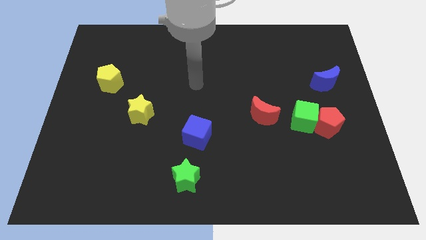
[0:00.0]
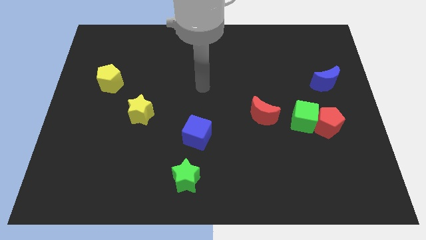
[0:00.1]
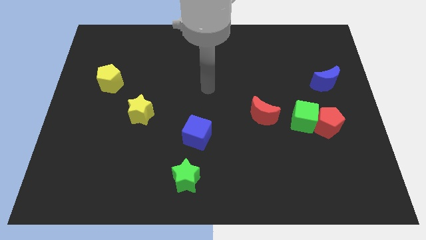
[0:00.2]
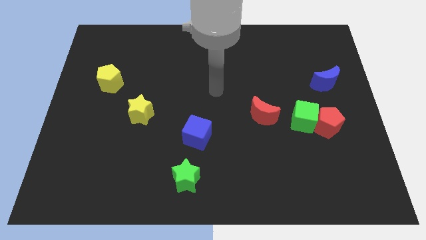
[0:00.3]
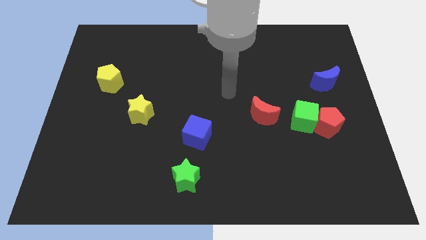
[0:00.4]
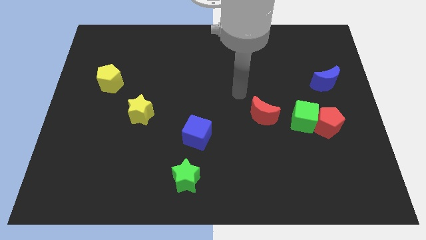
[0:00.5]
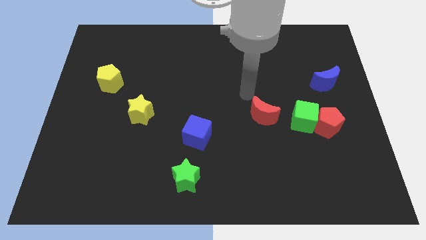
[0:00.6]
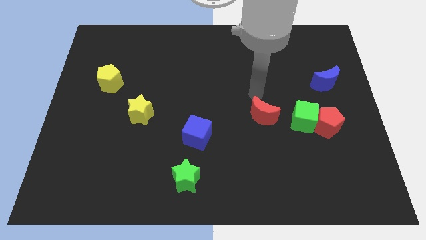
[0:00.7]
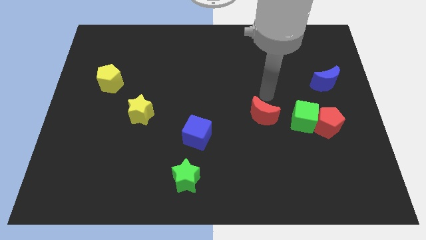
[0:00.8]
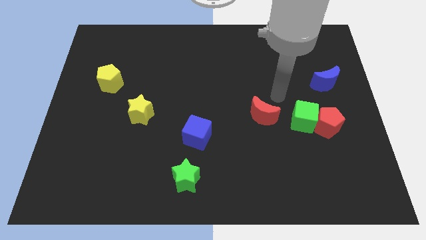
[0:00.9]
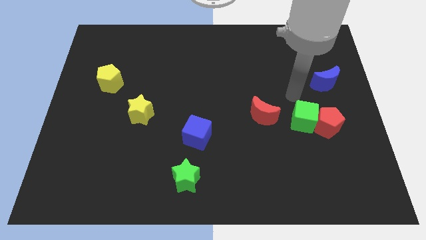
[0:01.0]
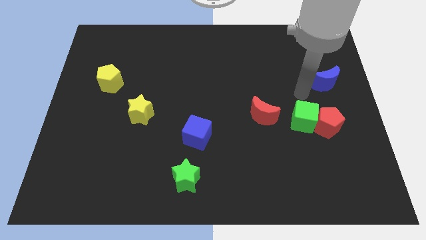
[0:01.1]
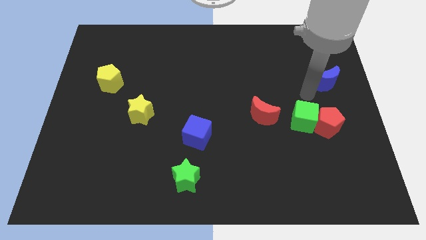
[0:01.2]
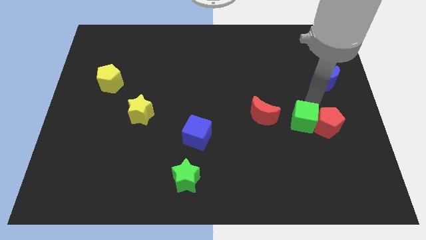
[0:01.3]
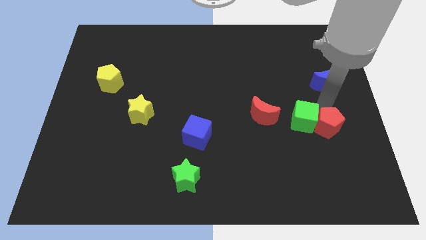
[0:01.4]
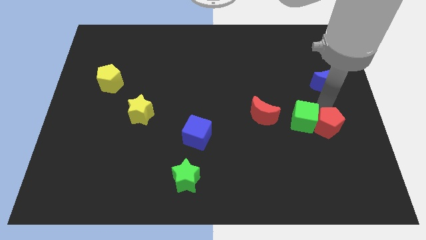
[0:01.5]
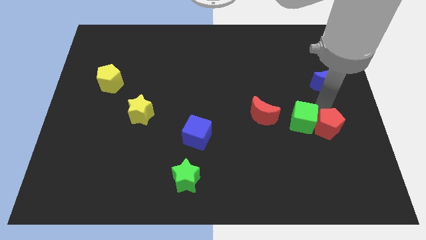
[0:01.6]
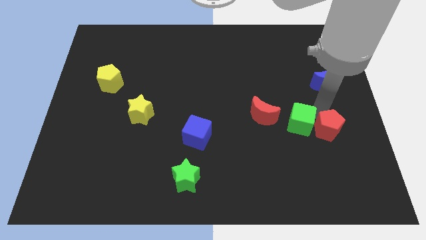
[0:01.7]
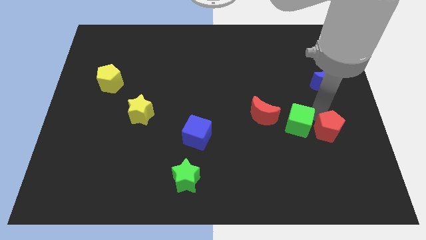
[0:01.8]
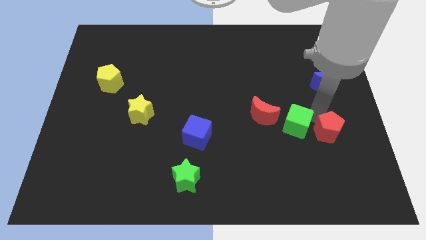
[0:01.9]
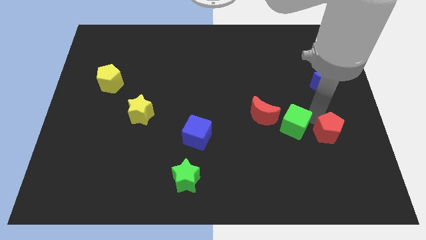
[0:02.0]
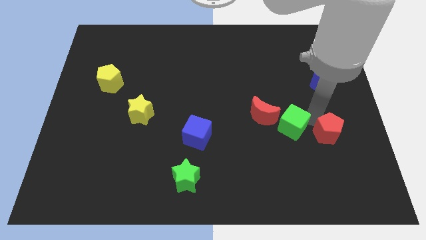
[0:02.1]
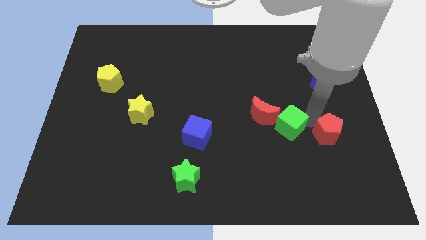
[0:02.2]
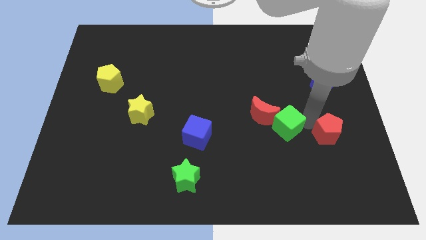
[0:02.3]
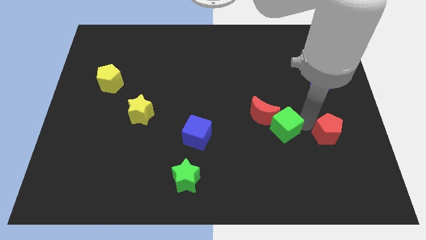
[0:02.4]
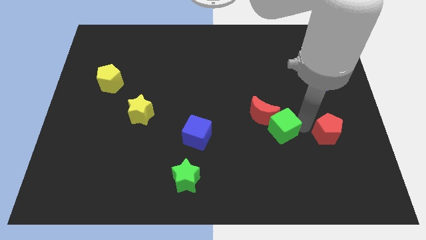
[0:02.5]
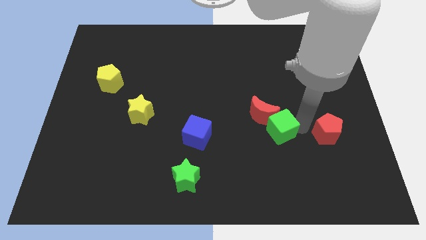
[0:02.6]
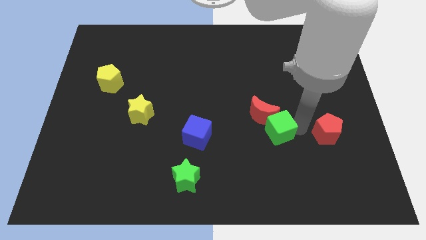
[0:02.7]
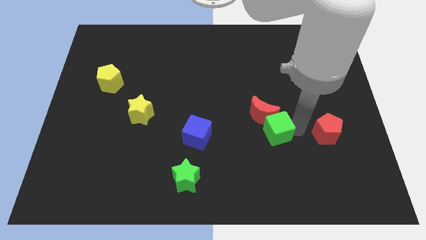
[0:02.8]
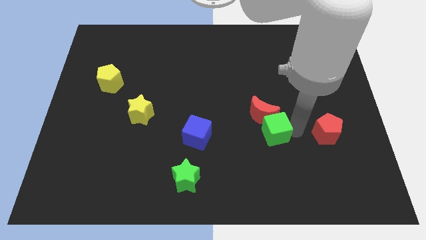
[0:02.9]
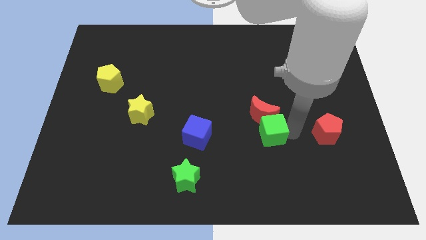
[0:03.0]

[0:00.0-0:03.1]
slide the green cube a little bit left

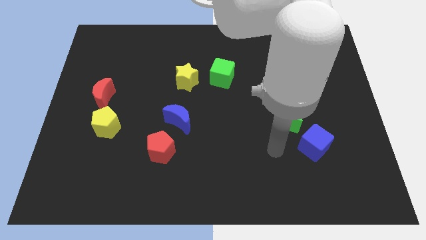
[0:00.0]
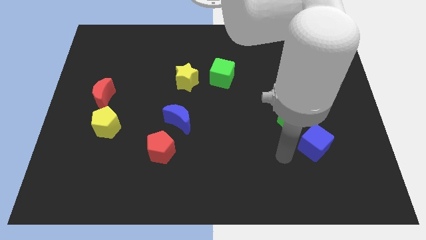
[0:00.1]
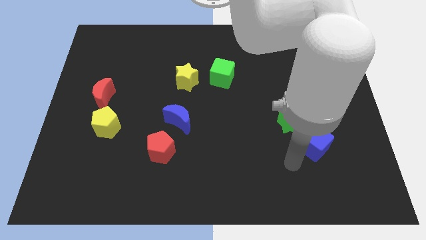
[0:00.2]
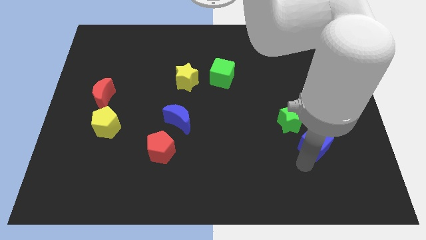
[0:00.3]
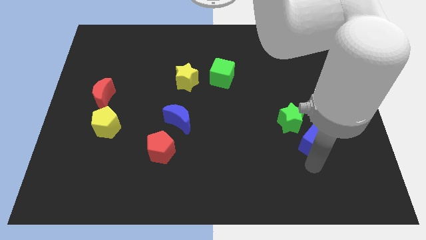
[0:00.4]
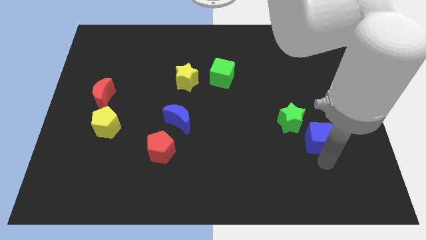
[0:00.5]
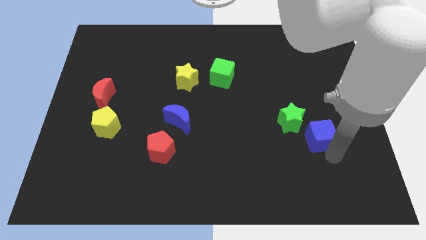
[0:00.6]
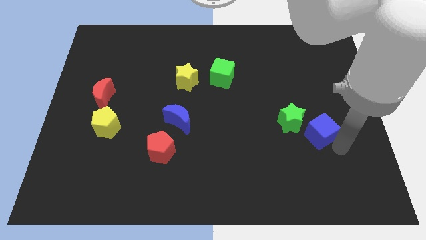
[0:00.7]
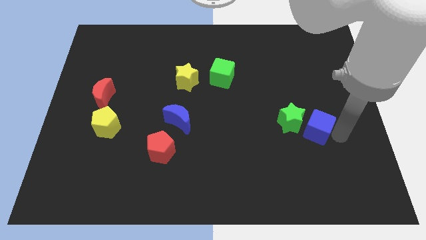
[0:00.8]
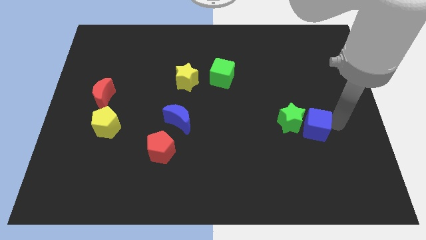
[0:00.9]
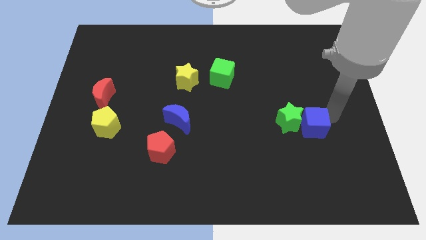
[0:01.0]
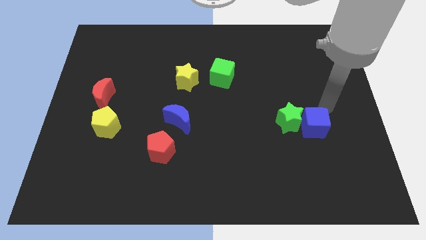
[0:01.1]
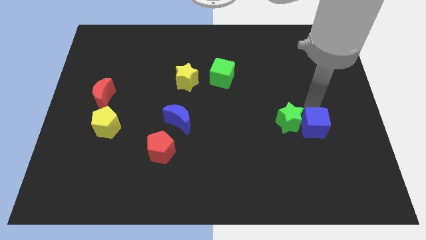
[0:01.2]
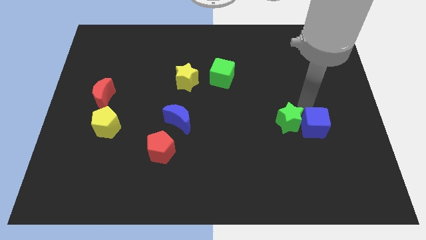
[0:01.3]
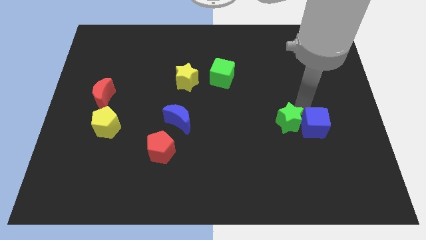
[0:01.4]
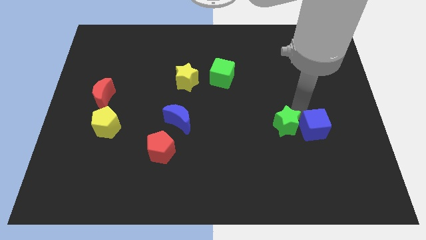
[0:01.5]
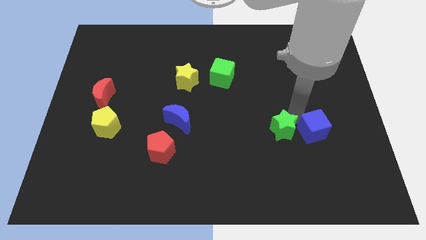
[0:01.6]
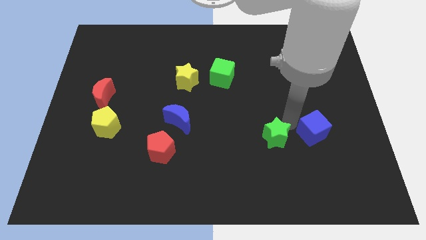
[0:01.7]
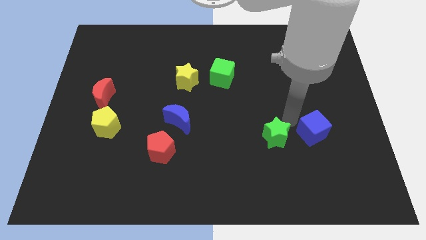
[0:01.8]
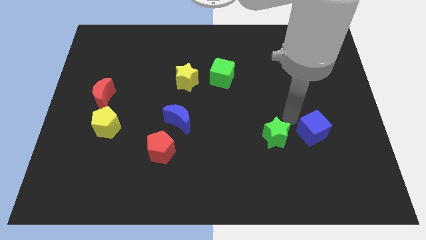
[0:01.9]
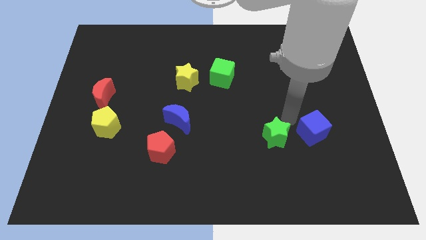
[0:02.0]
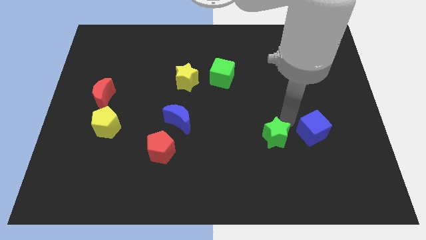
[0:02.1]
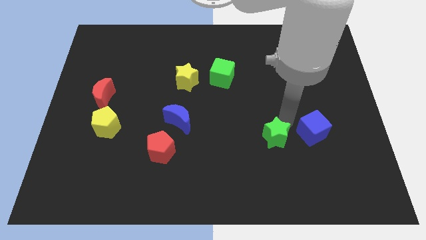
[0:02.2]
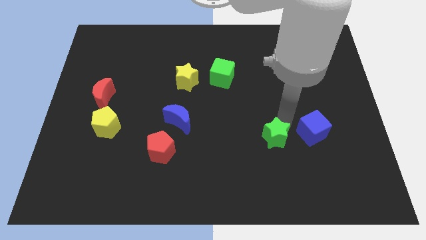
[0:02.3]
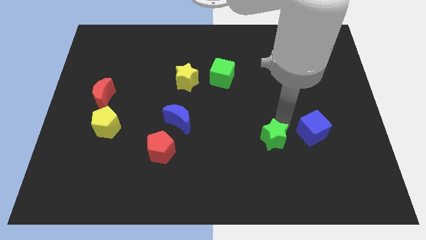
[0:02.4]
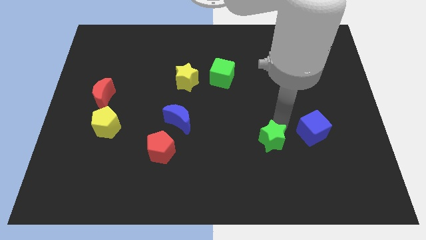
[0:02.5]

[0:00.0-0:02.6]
move the green star a little bit downwards and left diagonally

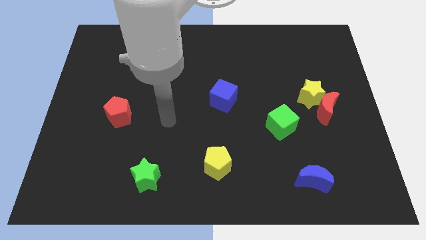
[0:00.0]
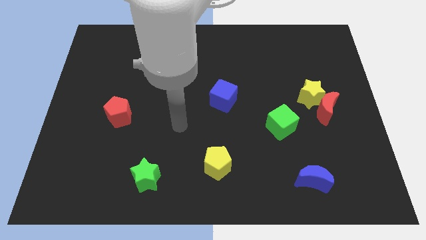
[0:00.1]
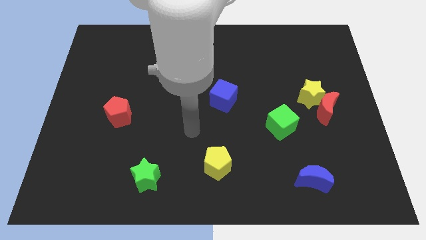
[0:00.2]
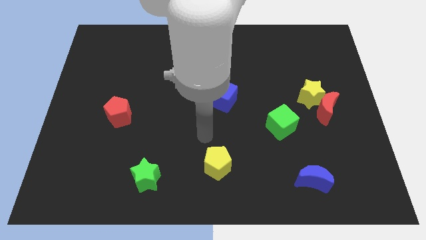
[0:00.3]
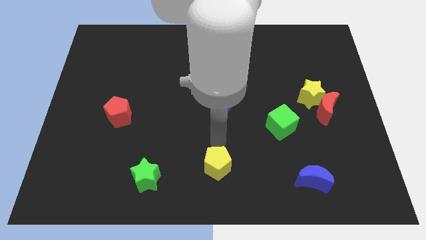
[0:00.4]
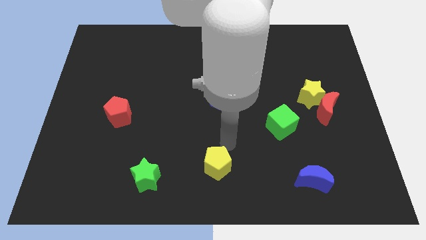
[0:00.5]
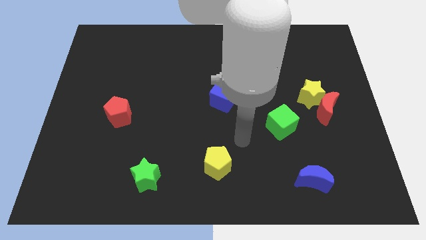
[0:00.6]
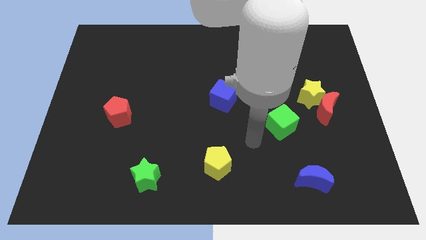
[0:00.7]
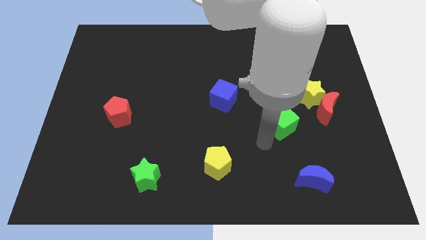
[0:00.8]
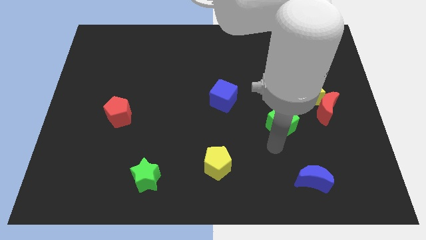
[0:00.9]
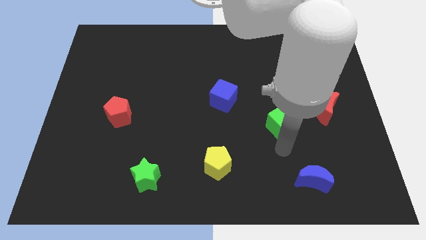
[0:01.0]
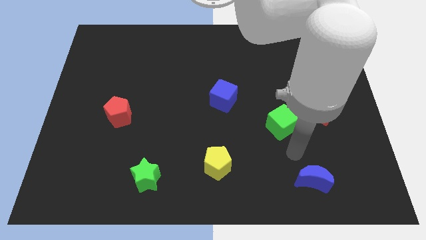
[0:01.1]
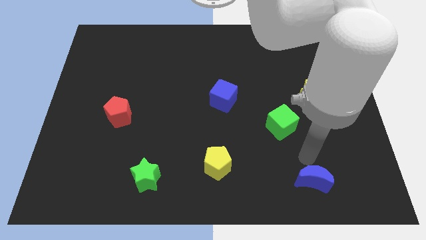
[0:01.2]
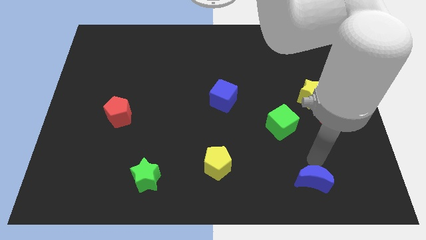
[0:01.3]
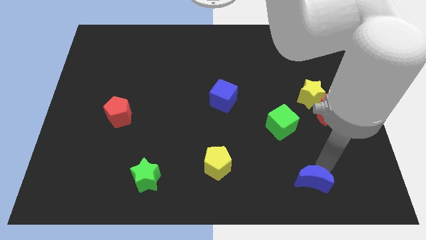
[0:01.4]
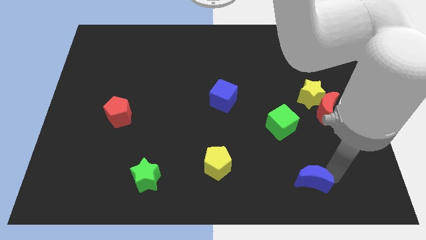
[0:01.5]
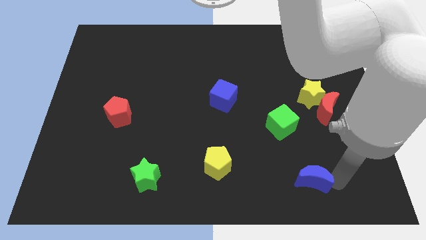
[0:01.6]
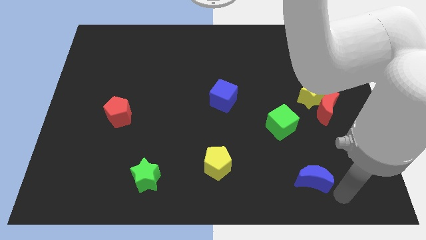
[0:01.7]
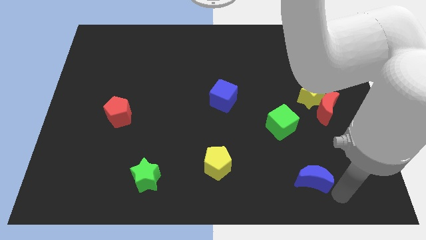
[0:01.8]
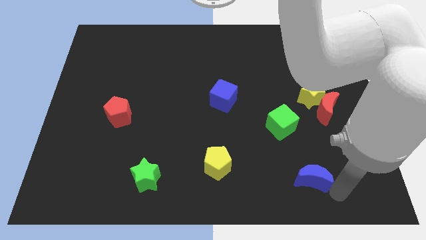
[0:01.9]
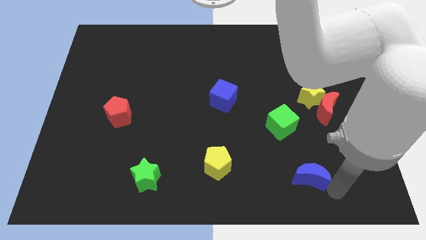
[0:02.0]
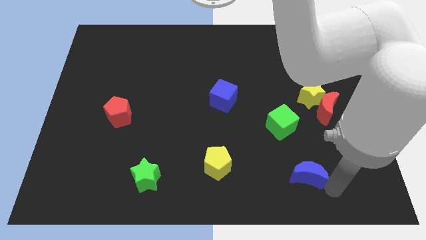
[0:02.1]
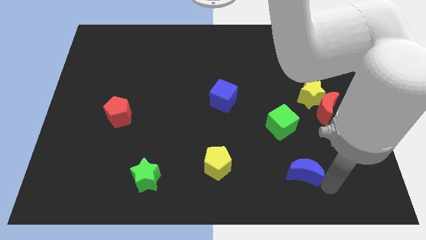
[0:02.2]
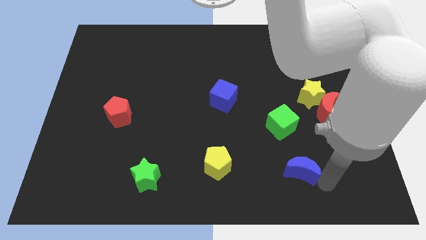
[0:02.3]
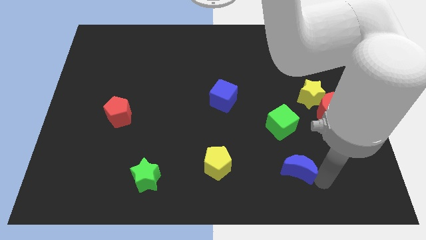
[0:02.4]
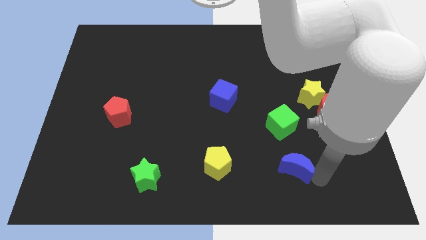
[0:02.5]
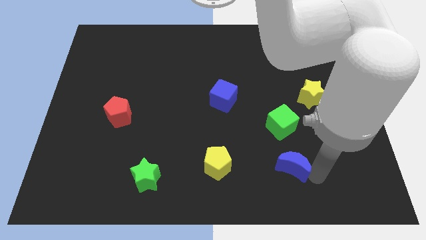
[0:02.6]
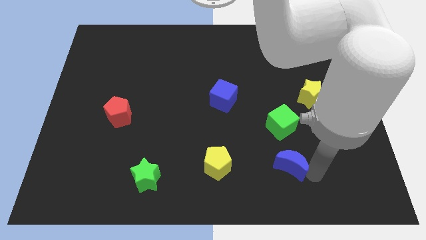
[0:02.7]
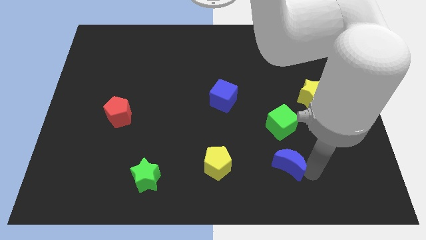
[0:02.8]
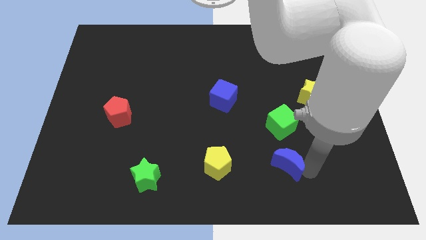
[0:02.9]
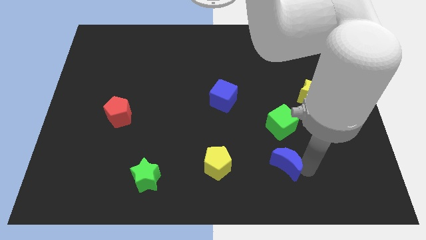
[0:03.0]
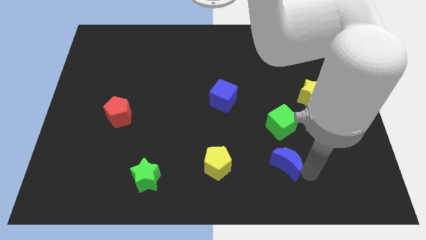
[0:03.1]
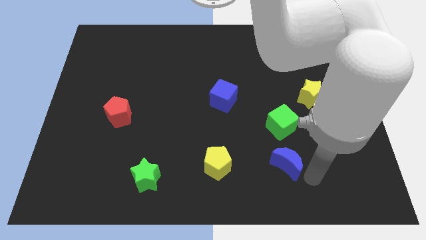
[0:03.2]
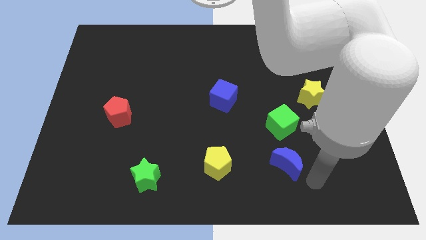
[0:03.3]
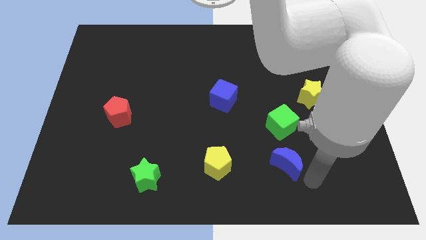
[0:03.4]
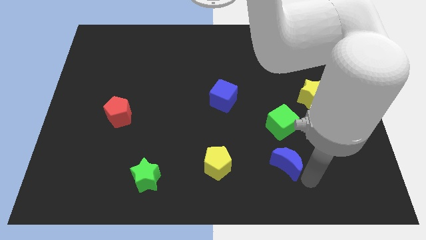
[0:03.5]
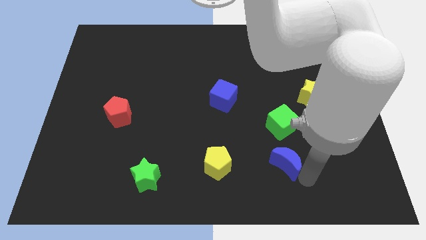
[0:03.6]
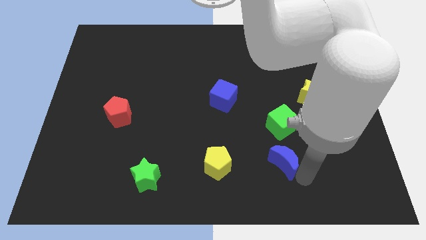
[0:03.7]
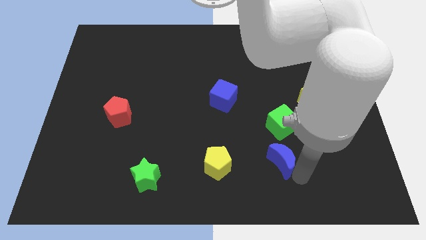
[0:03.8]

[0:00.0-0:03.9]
push the blue moon diagonally upwards and to the left slightly
